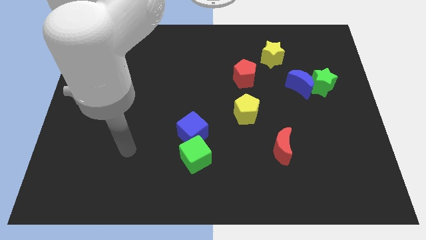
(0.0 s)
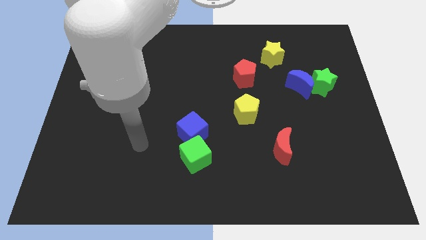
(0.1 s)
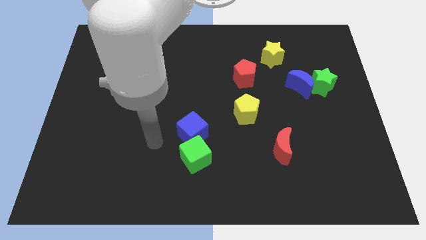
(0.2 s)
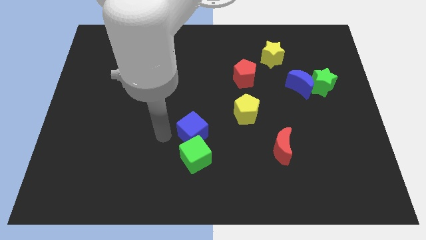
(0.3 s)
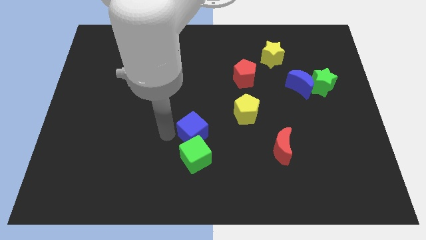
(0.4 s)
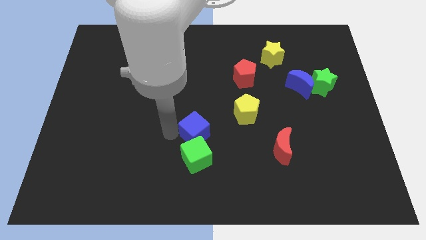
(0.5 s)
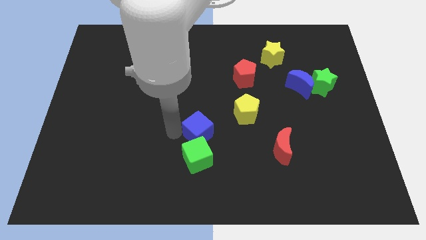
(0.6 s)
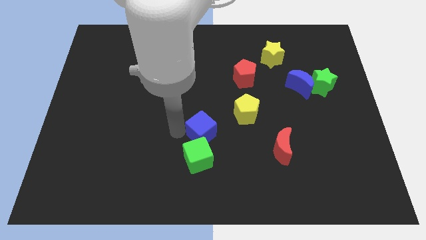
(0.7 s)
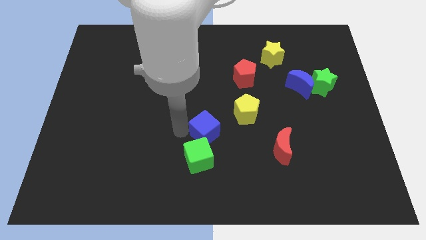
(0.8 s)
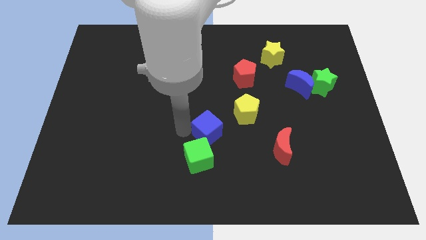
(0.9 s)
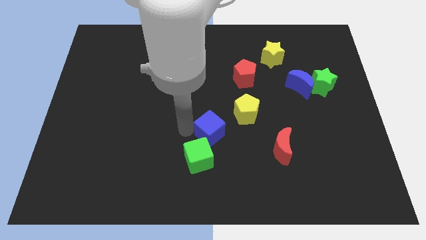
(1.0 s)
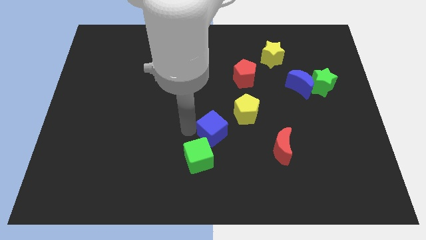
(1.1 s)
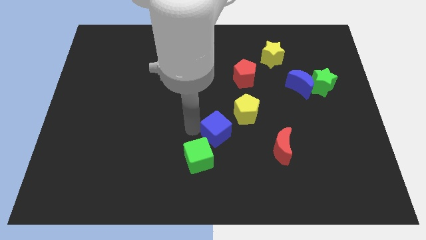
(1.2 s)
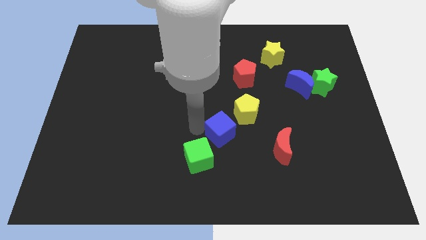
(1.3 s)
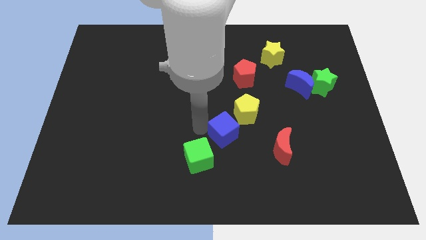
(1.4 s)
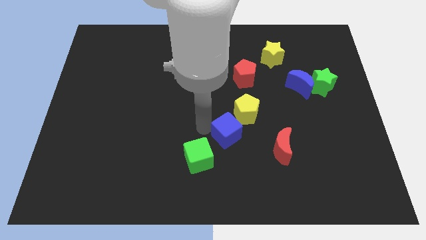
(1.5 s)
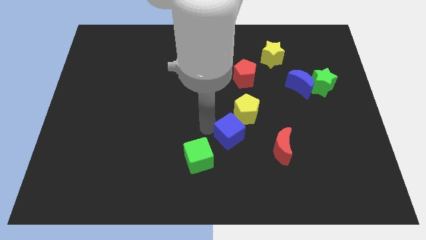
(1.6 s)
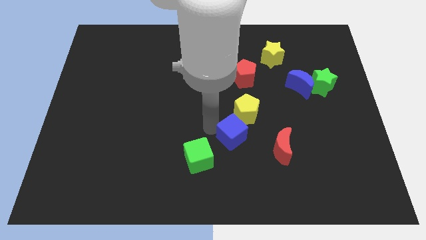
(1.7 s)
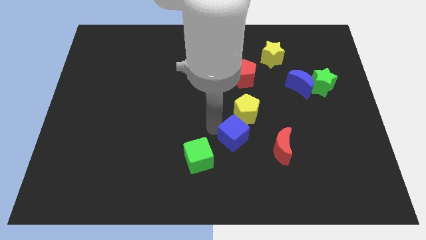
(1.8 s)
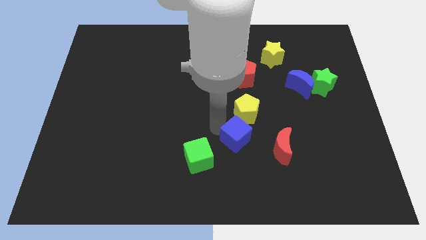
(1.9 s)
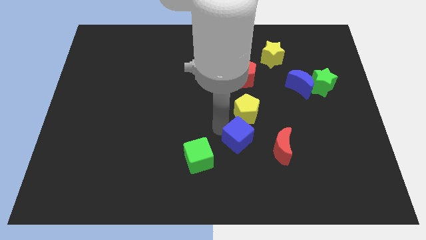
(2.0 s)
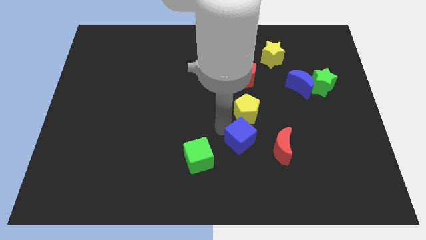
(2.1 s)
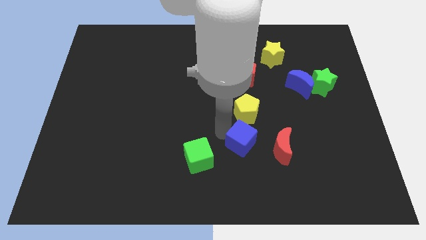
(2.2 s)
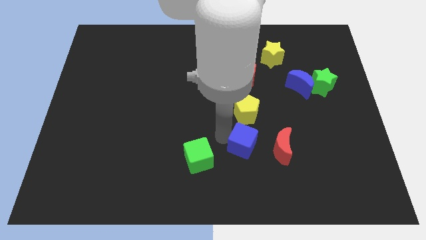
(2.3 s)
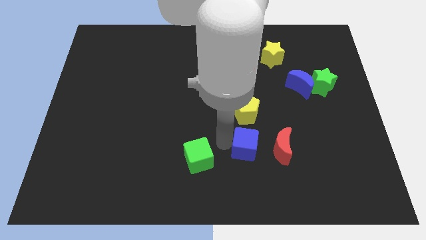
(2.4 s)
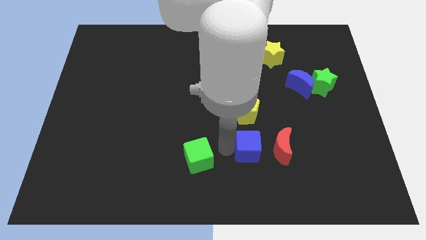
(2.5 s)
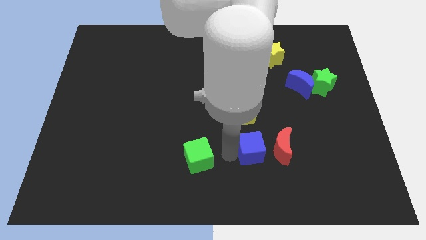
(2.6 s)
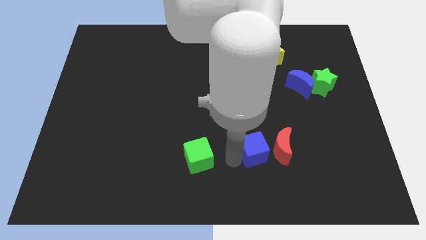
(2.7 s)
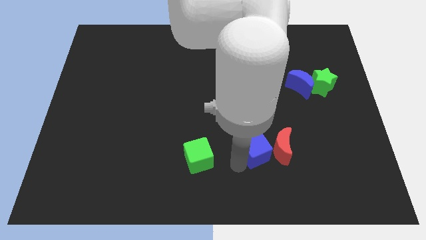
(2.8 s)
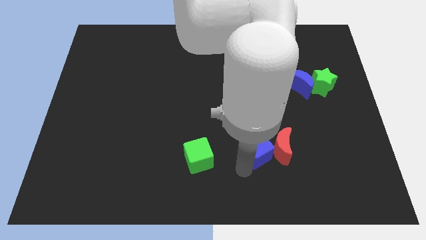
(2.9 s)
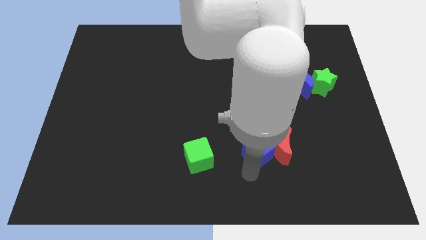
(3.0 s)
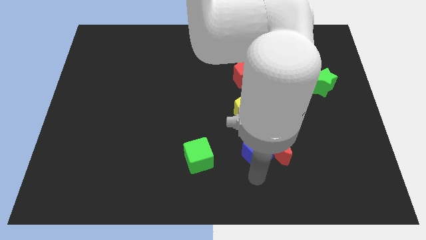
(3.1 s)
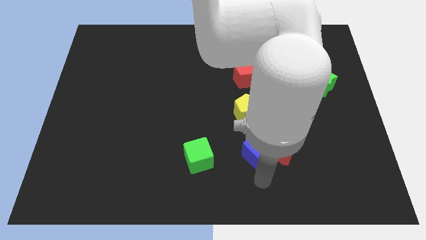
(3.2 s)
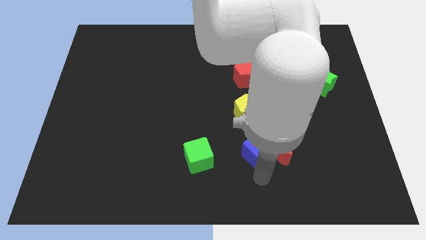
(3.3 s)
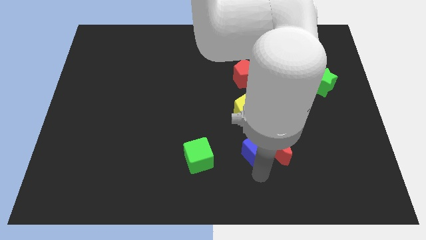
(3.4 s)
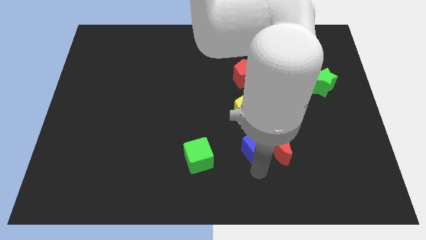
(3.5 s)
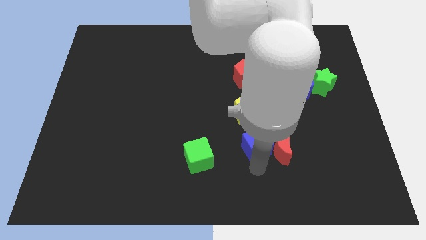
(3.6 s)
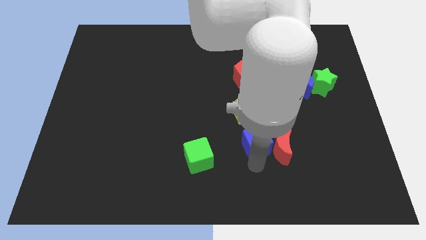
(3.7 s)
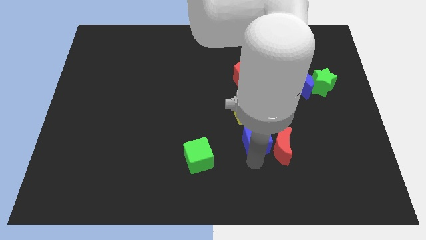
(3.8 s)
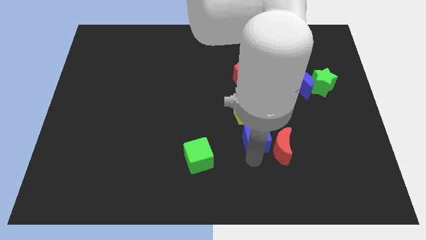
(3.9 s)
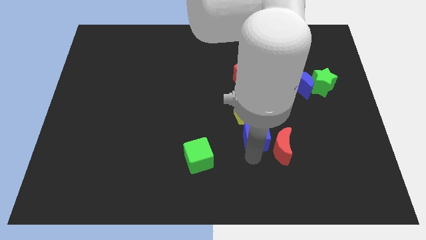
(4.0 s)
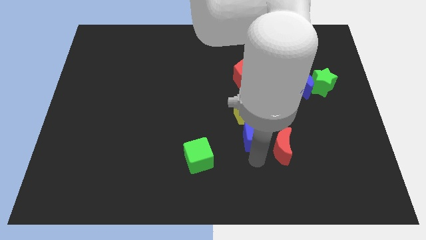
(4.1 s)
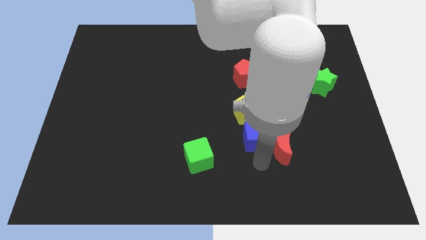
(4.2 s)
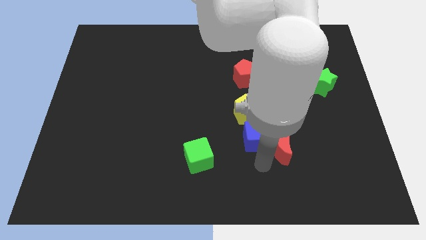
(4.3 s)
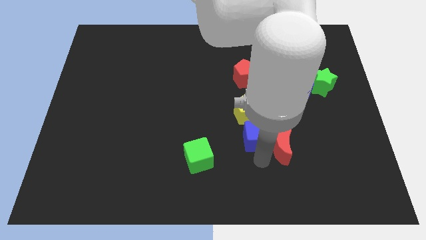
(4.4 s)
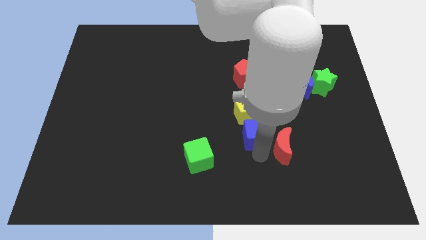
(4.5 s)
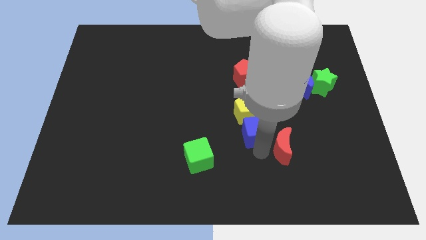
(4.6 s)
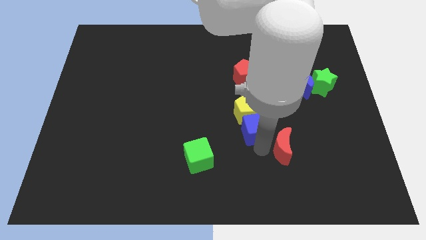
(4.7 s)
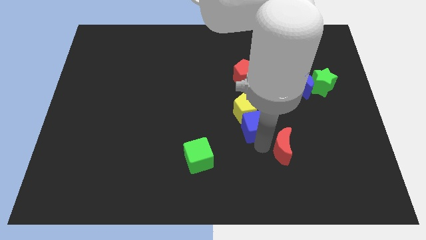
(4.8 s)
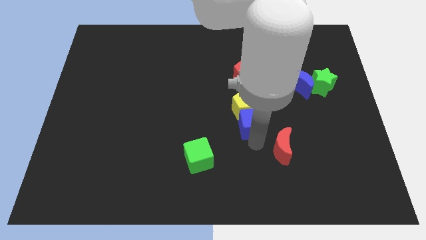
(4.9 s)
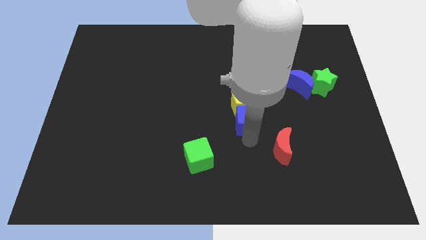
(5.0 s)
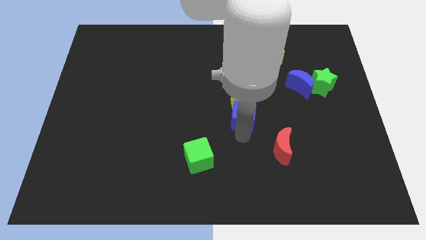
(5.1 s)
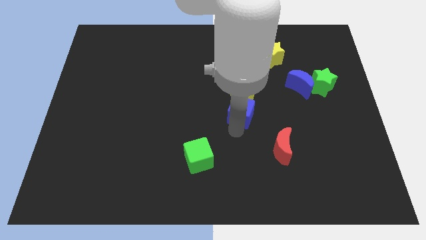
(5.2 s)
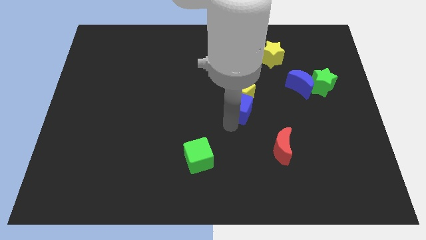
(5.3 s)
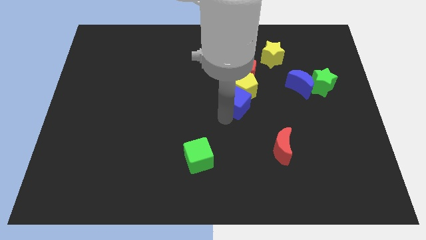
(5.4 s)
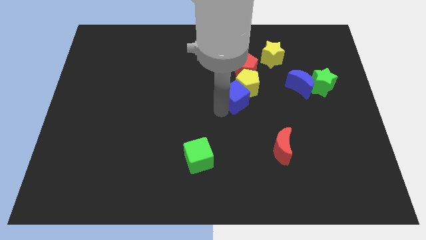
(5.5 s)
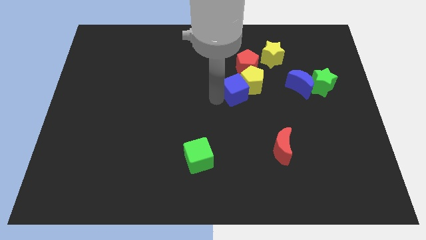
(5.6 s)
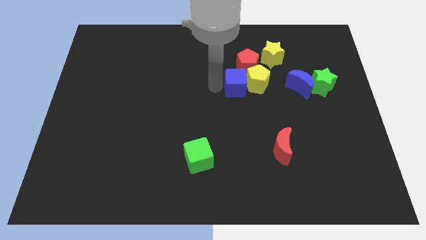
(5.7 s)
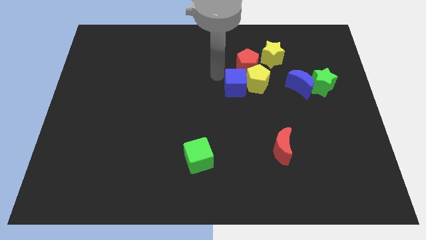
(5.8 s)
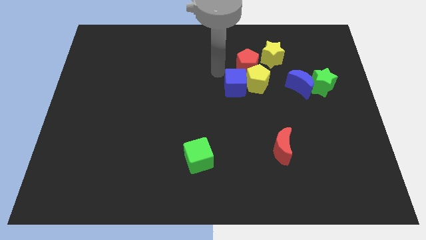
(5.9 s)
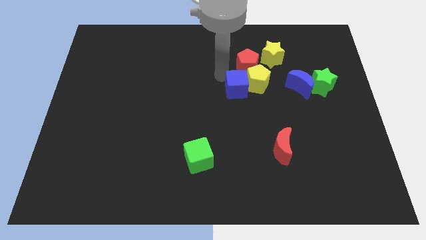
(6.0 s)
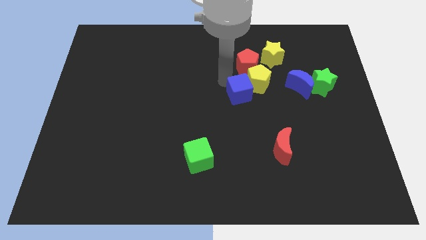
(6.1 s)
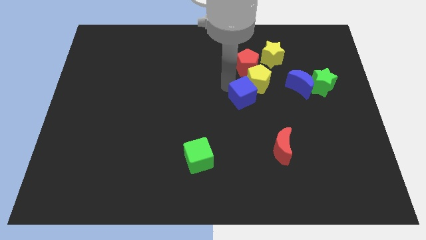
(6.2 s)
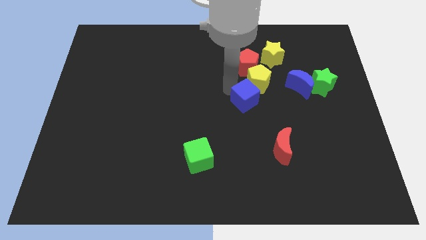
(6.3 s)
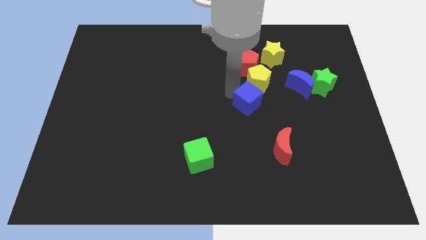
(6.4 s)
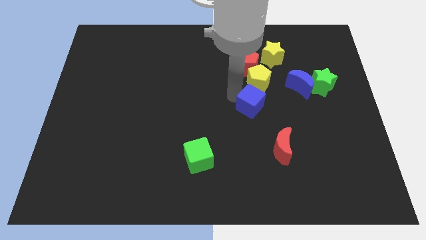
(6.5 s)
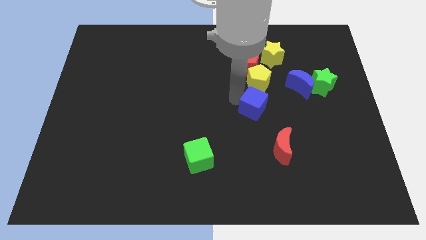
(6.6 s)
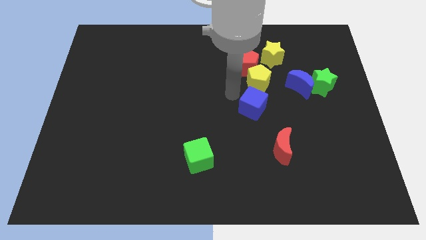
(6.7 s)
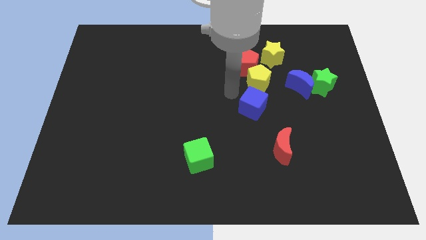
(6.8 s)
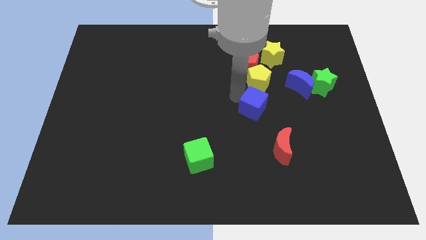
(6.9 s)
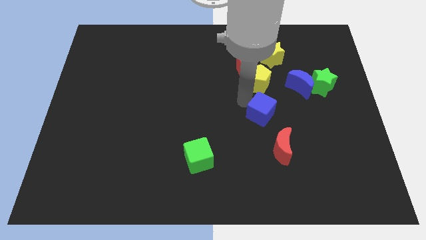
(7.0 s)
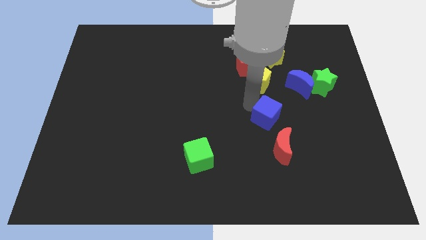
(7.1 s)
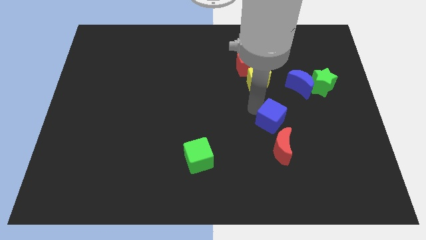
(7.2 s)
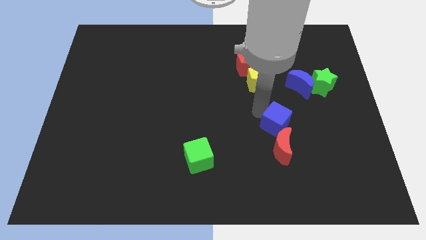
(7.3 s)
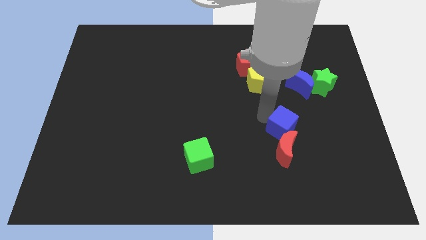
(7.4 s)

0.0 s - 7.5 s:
slide the blue cube right

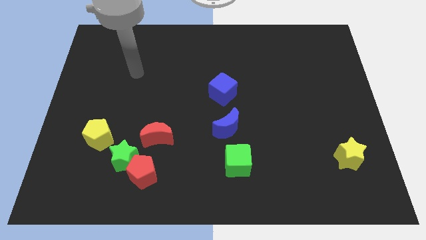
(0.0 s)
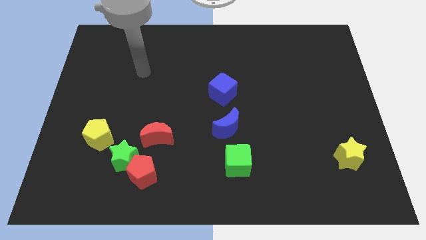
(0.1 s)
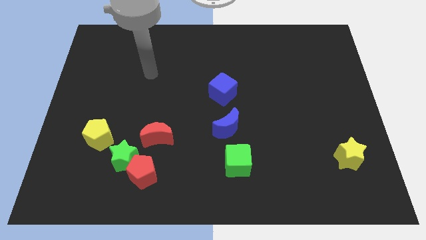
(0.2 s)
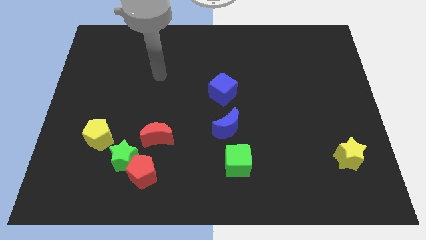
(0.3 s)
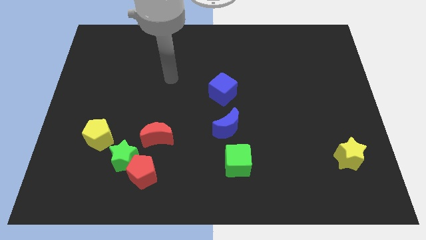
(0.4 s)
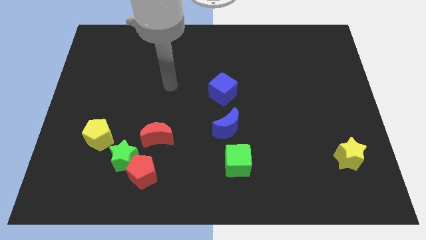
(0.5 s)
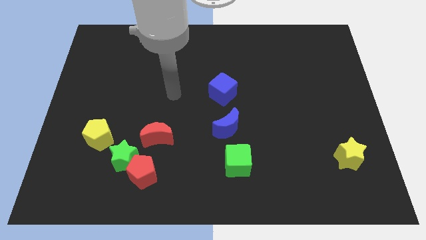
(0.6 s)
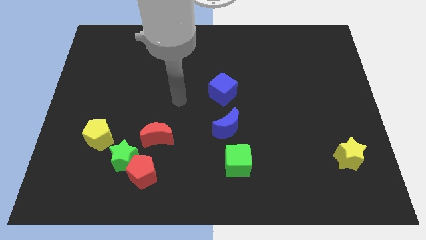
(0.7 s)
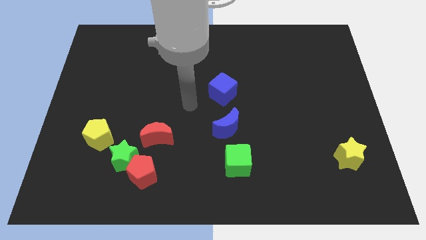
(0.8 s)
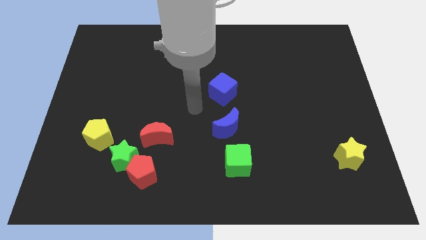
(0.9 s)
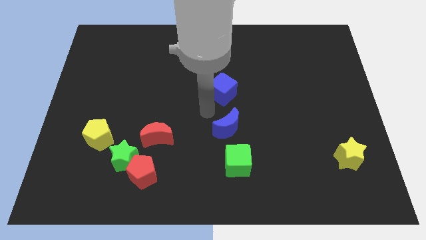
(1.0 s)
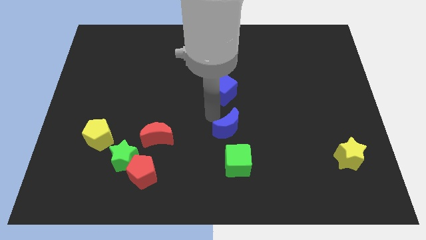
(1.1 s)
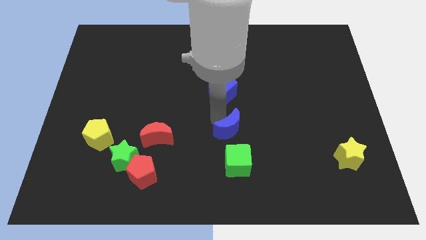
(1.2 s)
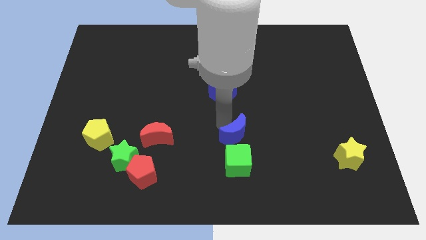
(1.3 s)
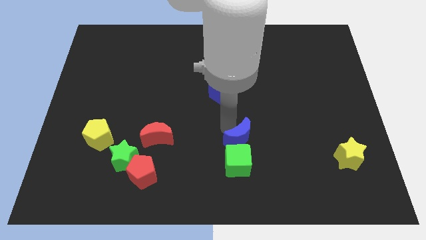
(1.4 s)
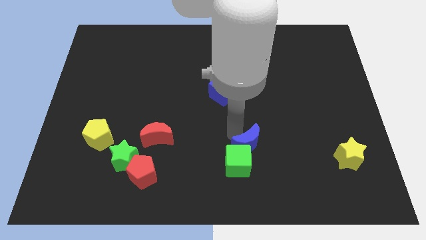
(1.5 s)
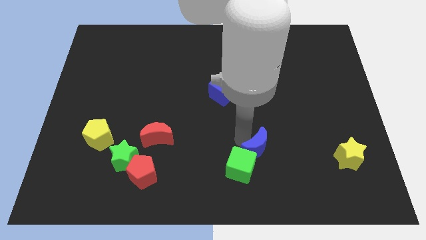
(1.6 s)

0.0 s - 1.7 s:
slide the blue moon a bit downwards and right diagonally
